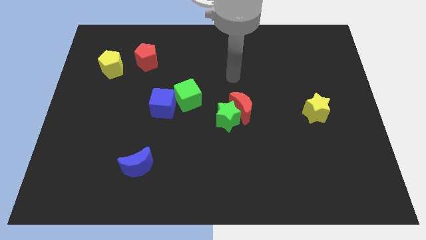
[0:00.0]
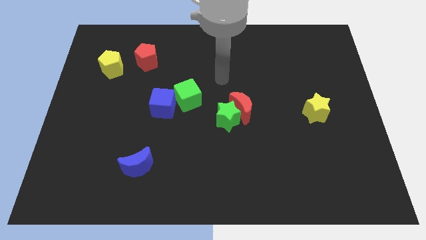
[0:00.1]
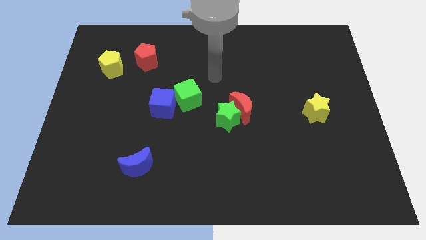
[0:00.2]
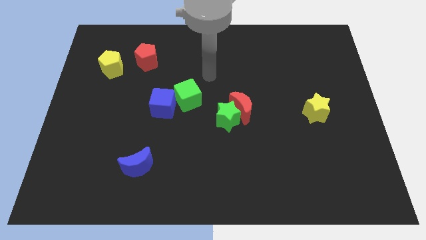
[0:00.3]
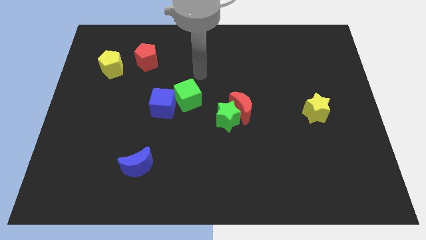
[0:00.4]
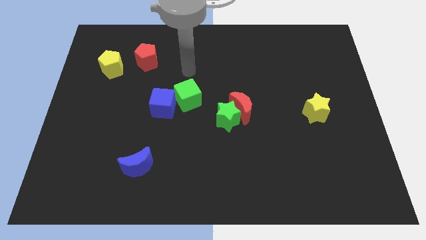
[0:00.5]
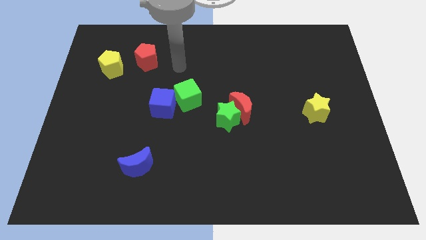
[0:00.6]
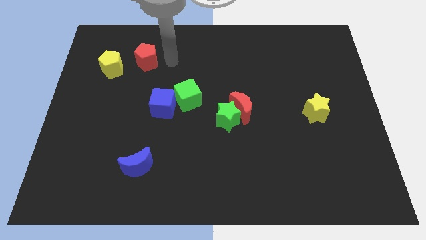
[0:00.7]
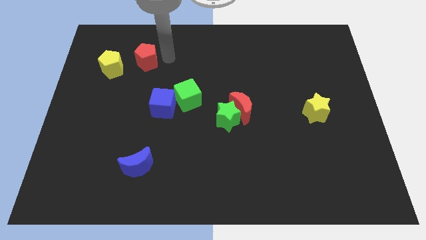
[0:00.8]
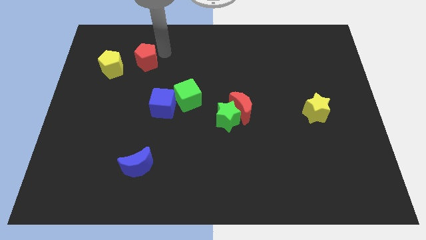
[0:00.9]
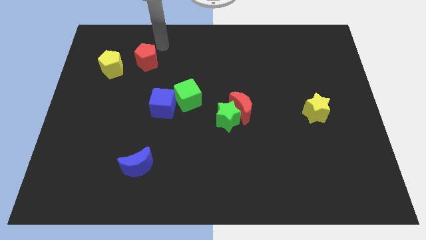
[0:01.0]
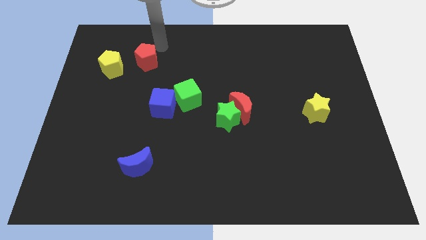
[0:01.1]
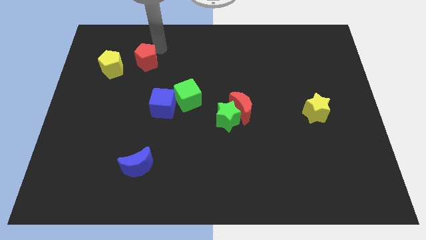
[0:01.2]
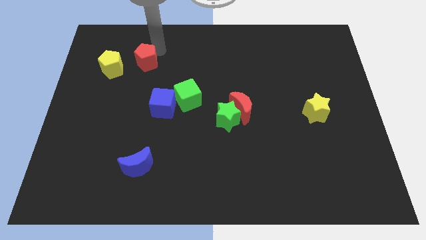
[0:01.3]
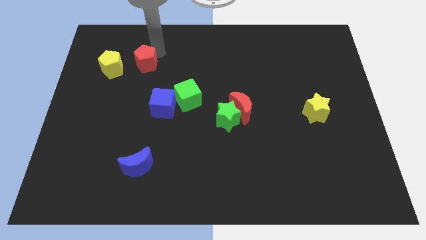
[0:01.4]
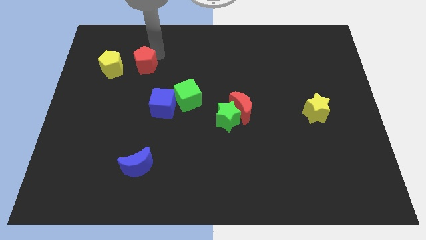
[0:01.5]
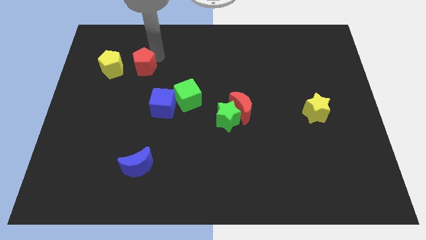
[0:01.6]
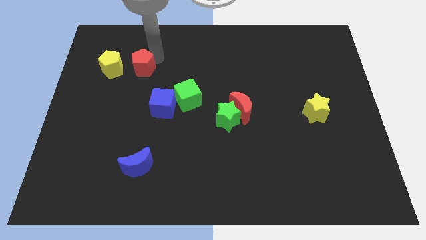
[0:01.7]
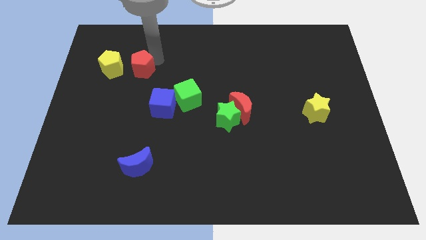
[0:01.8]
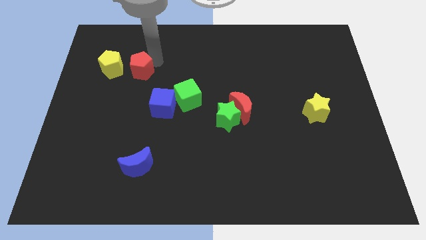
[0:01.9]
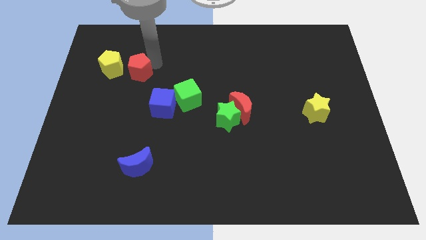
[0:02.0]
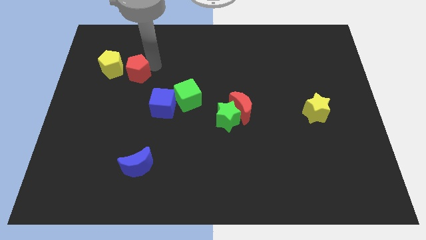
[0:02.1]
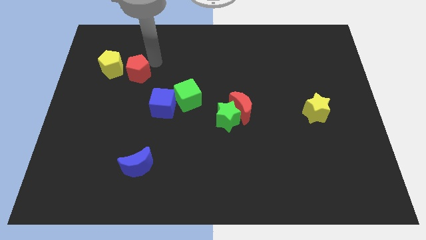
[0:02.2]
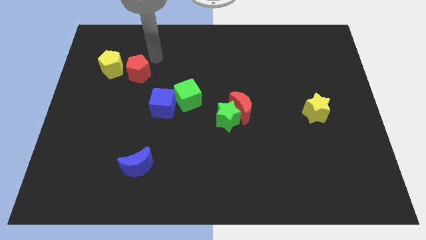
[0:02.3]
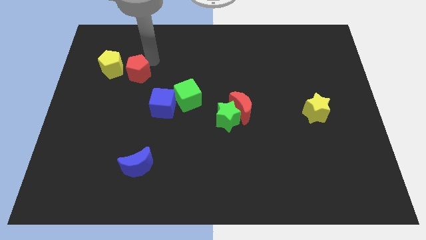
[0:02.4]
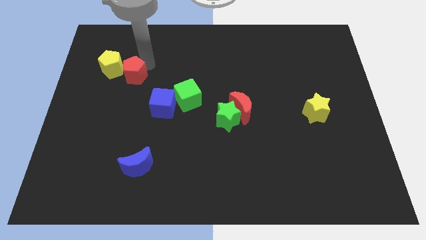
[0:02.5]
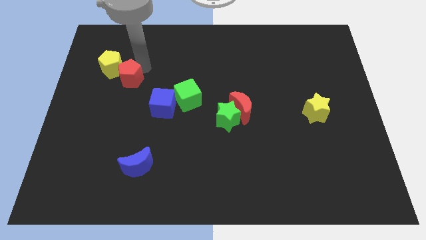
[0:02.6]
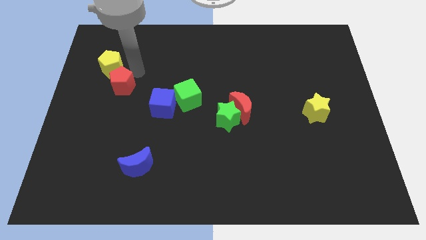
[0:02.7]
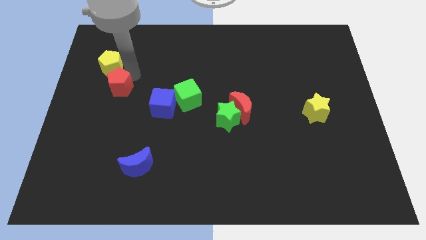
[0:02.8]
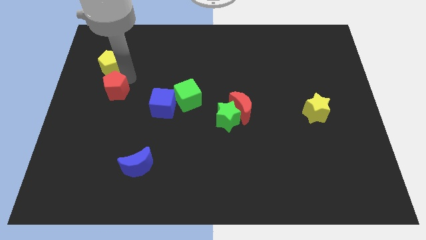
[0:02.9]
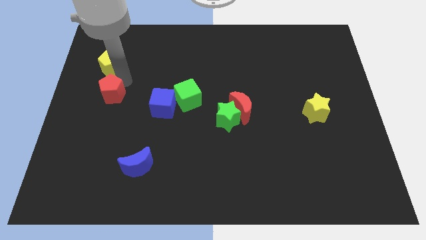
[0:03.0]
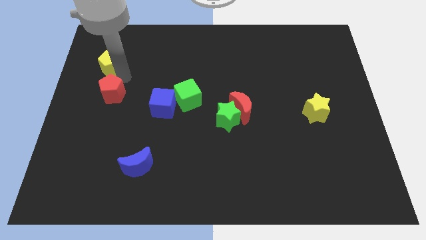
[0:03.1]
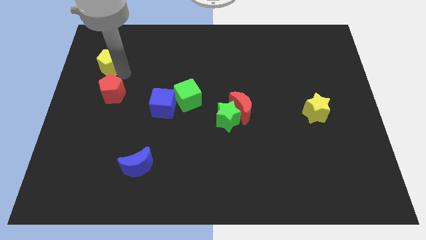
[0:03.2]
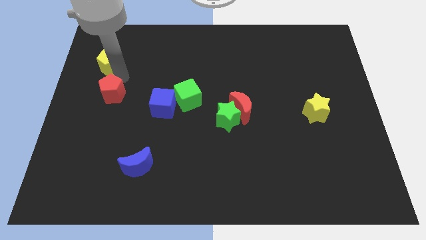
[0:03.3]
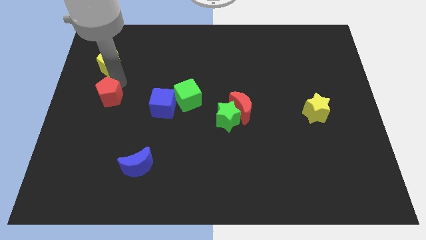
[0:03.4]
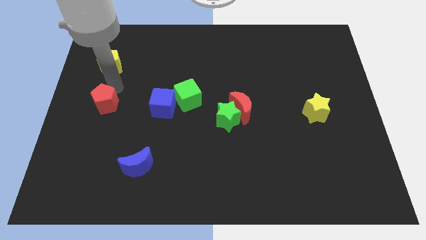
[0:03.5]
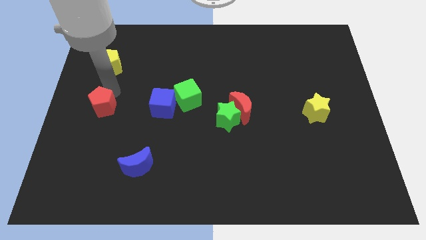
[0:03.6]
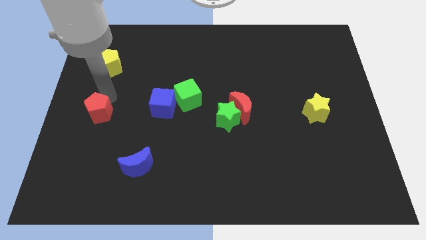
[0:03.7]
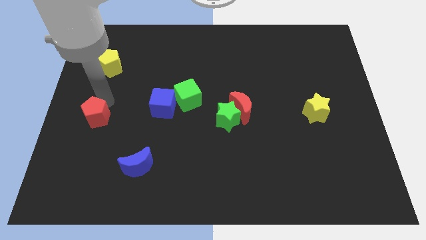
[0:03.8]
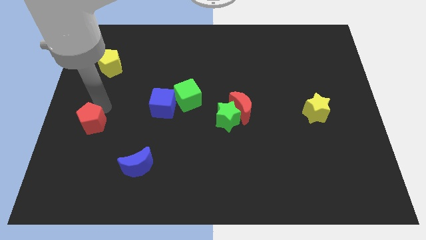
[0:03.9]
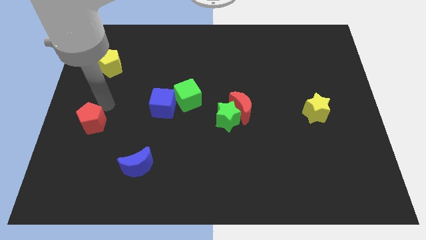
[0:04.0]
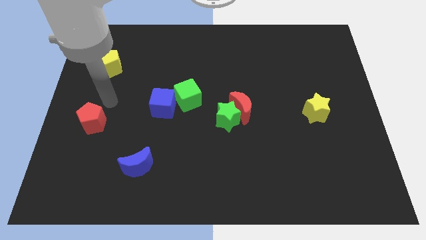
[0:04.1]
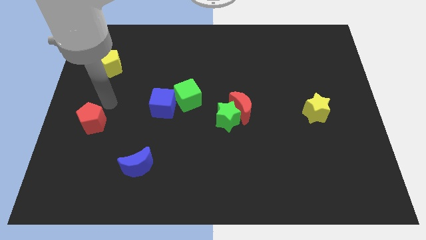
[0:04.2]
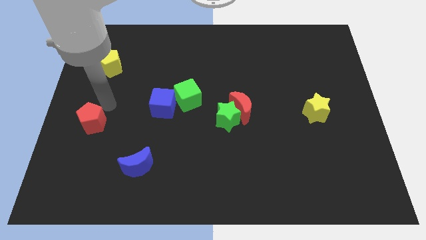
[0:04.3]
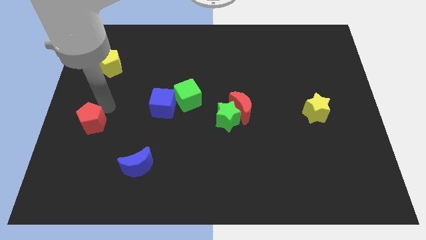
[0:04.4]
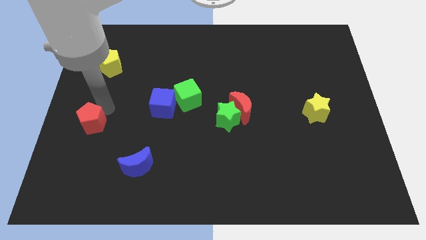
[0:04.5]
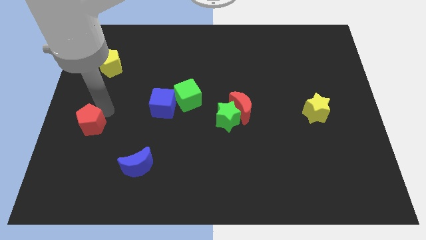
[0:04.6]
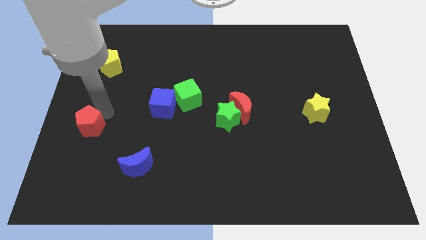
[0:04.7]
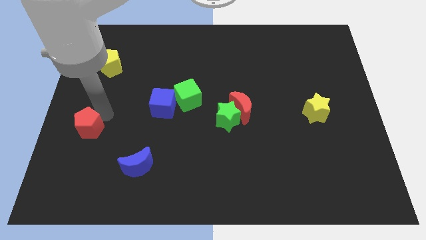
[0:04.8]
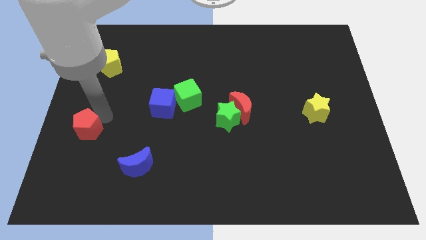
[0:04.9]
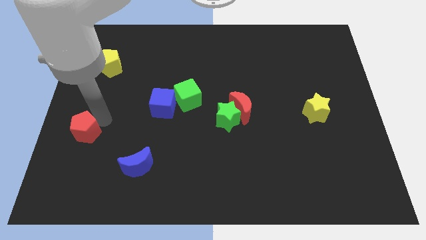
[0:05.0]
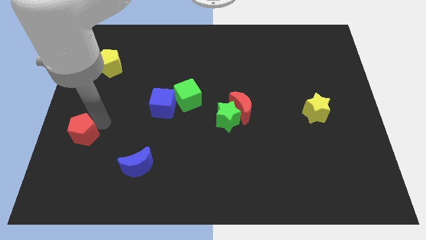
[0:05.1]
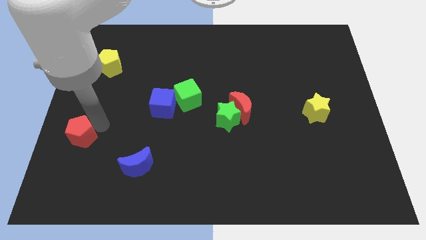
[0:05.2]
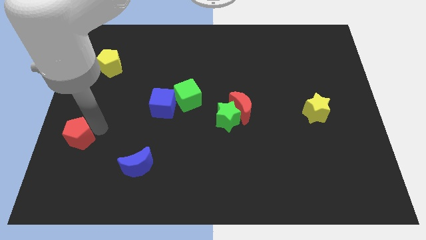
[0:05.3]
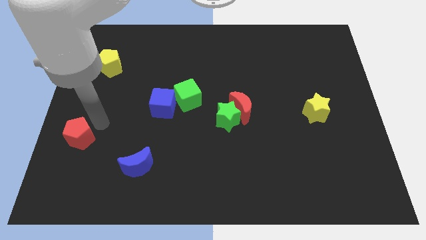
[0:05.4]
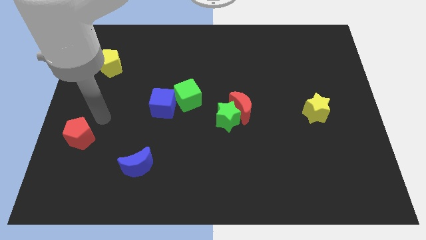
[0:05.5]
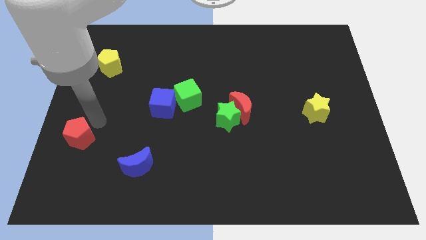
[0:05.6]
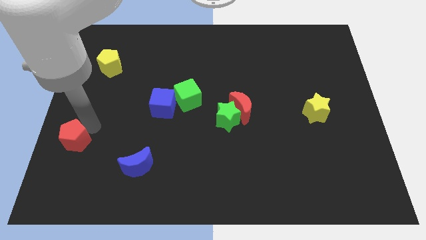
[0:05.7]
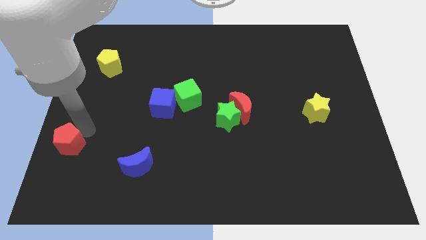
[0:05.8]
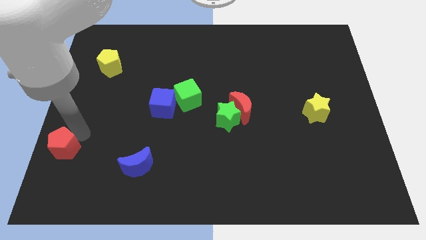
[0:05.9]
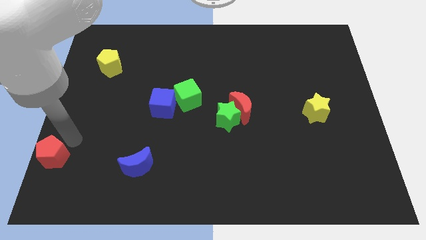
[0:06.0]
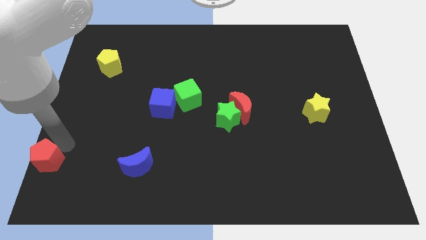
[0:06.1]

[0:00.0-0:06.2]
push the red pentagon to the bottom left

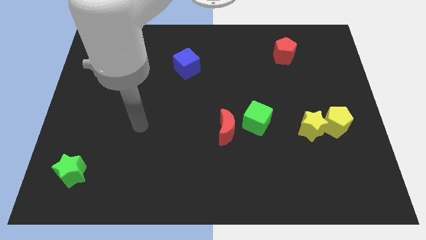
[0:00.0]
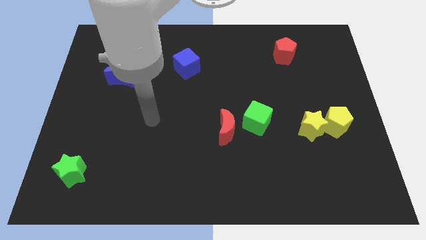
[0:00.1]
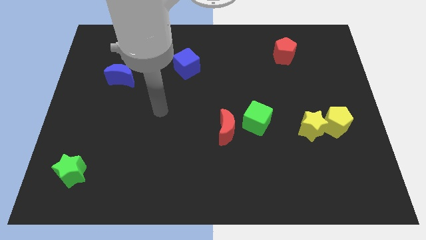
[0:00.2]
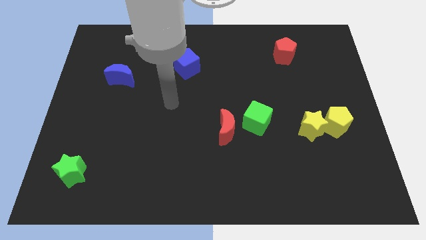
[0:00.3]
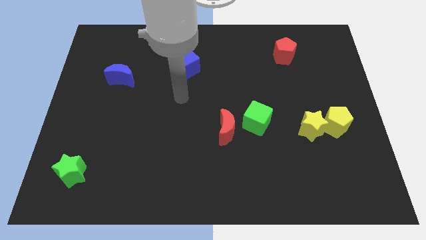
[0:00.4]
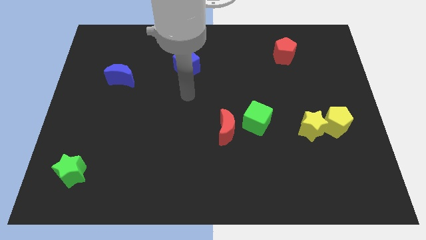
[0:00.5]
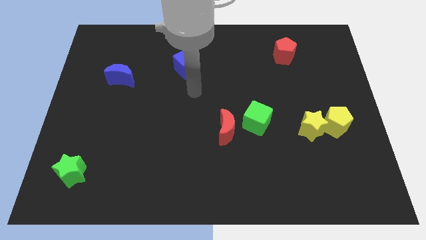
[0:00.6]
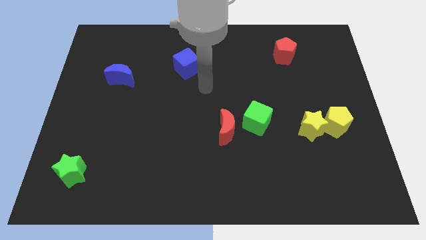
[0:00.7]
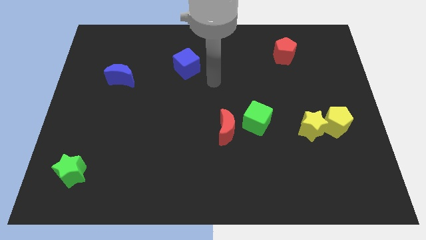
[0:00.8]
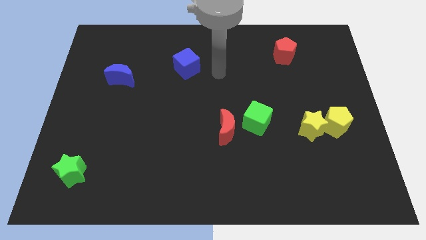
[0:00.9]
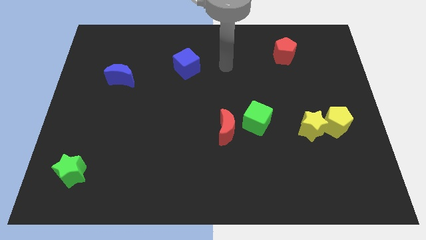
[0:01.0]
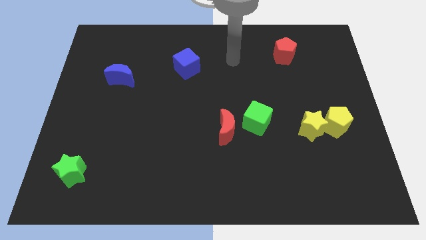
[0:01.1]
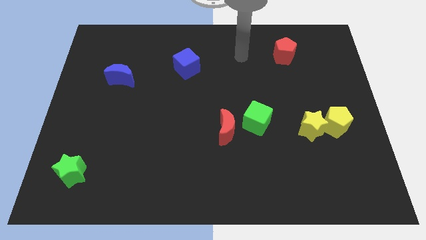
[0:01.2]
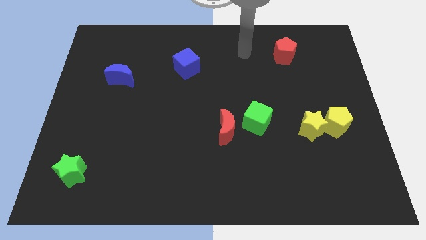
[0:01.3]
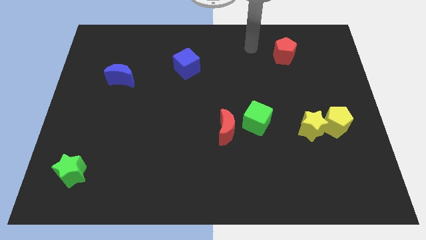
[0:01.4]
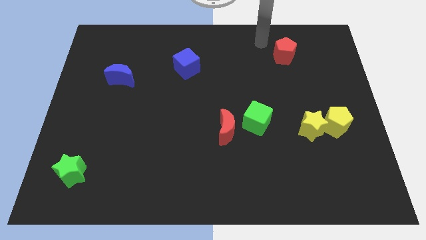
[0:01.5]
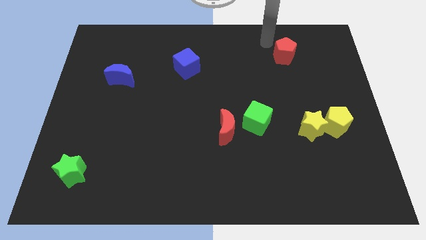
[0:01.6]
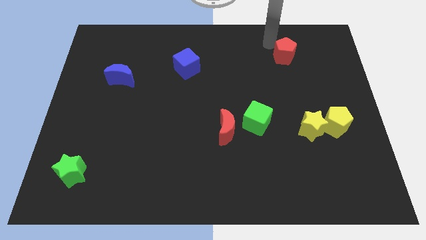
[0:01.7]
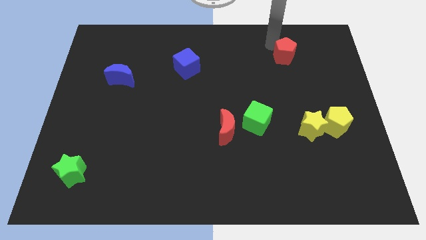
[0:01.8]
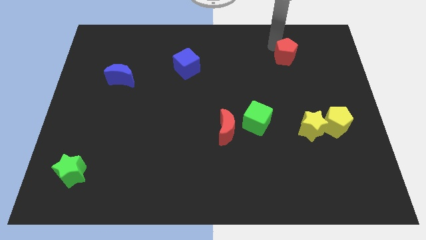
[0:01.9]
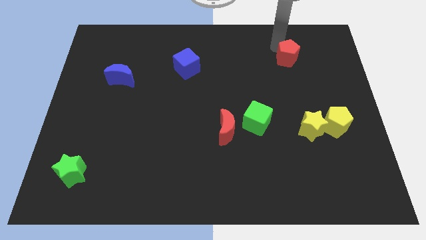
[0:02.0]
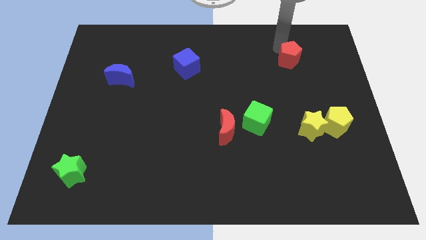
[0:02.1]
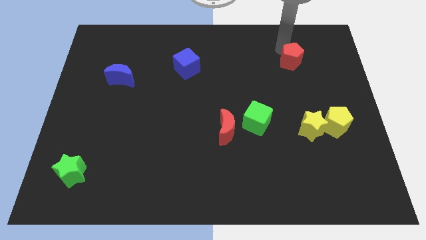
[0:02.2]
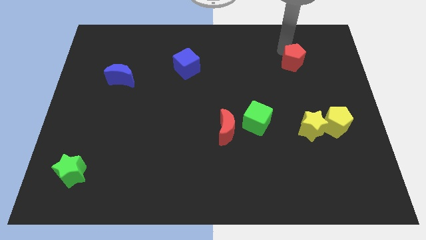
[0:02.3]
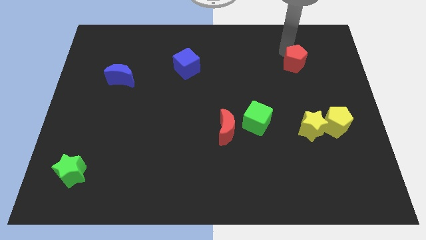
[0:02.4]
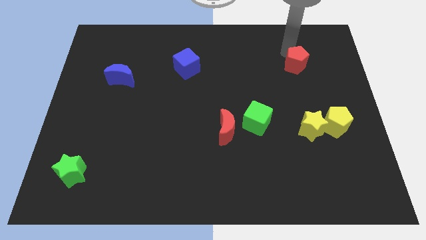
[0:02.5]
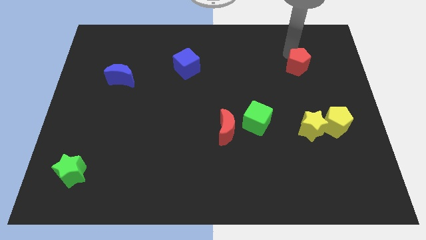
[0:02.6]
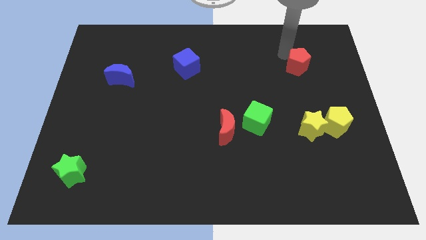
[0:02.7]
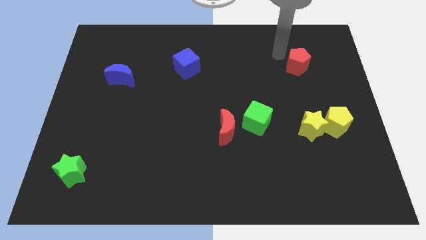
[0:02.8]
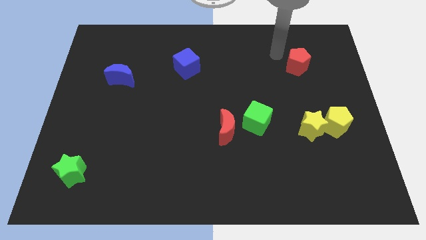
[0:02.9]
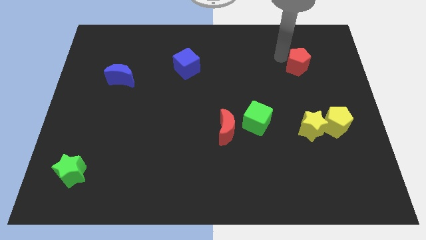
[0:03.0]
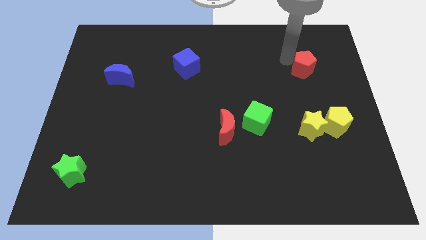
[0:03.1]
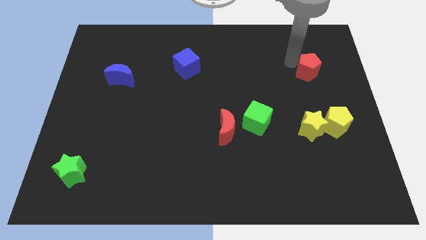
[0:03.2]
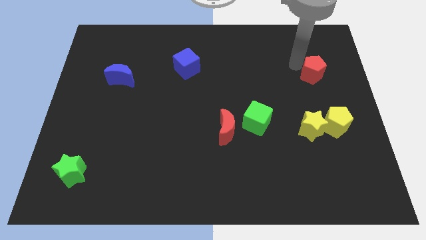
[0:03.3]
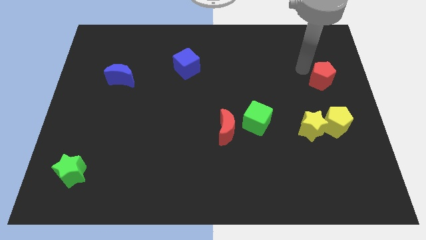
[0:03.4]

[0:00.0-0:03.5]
push the red pentagon to the center right
